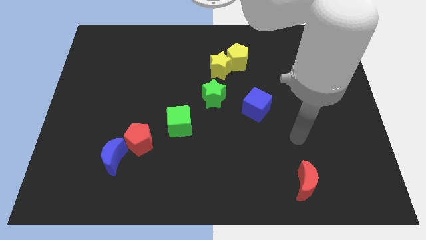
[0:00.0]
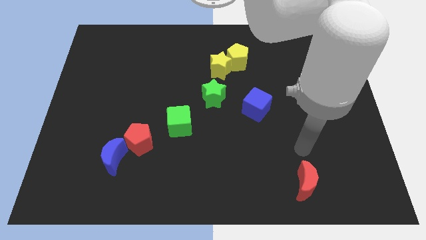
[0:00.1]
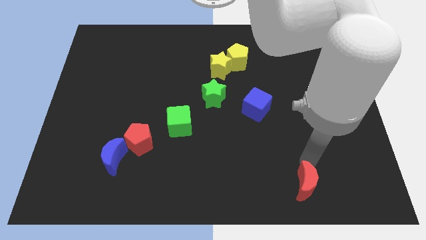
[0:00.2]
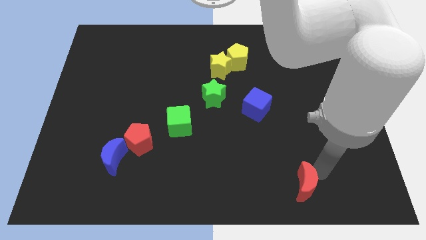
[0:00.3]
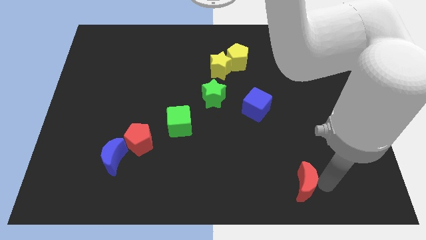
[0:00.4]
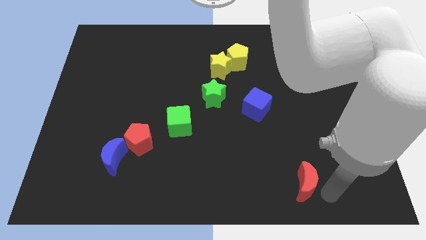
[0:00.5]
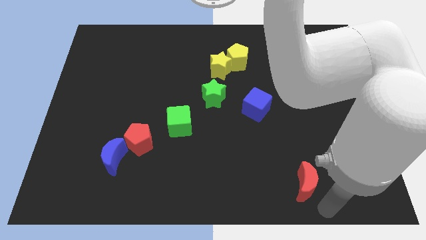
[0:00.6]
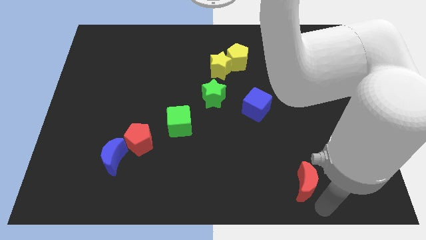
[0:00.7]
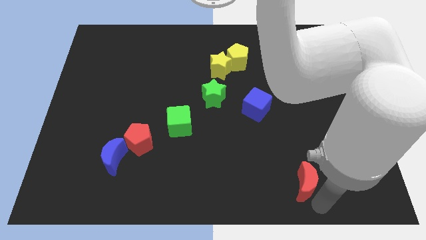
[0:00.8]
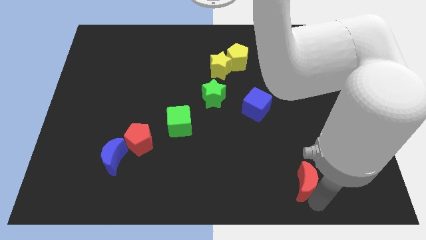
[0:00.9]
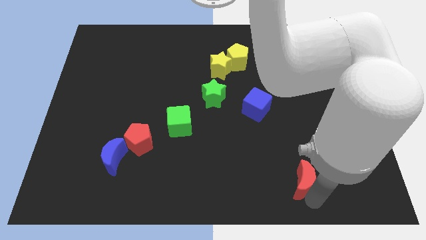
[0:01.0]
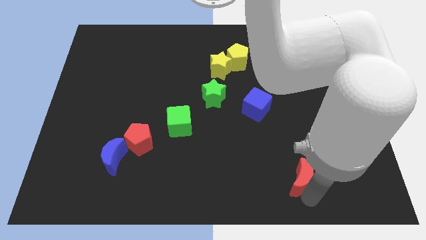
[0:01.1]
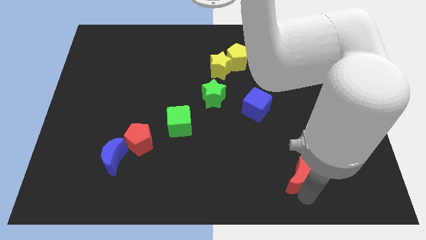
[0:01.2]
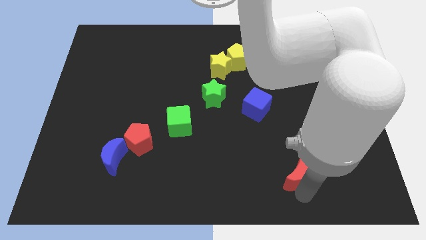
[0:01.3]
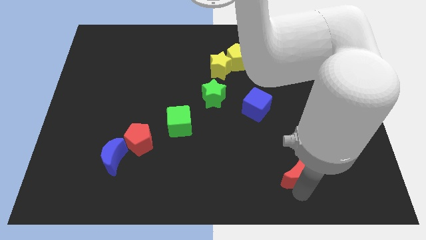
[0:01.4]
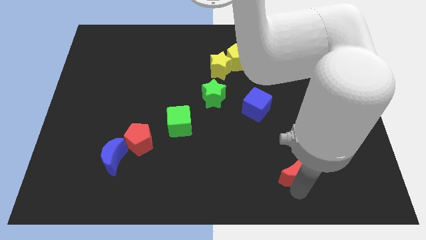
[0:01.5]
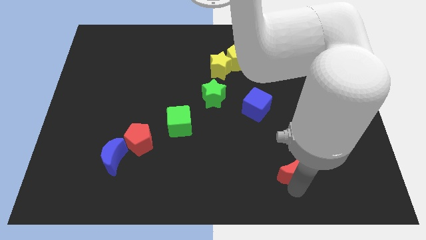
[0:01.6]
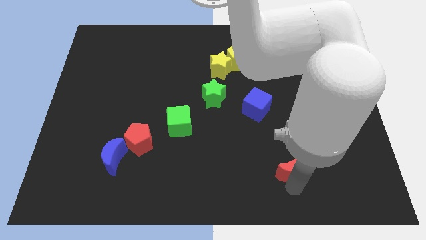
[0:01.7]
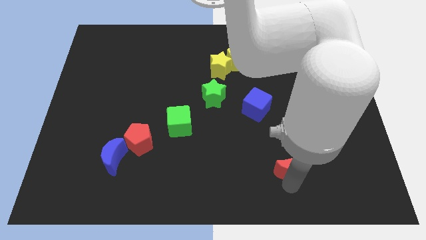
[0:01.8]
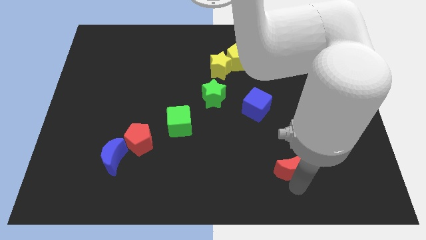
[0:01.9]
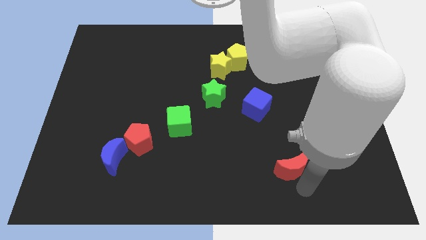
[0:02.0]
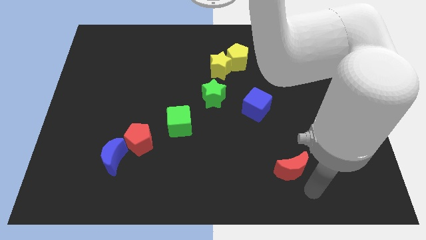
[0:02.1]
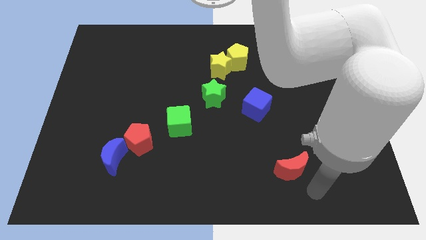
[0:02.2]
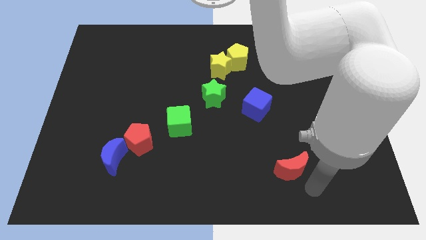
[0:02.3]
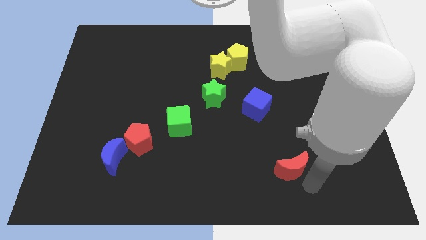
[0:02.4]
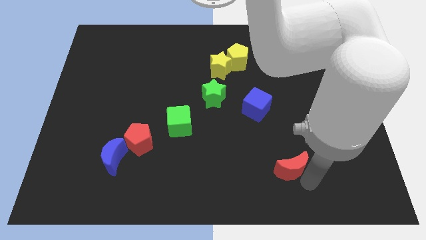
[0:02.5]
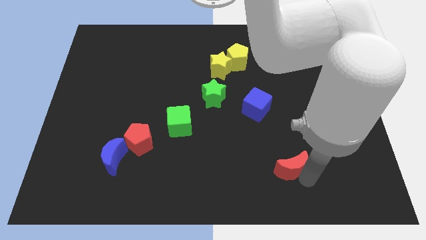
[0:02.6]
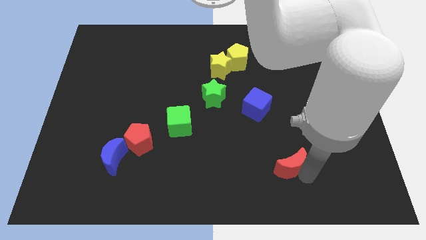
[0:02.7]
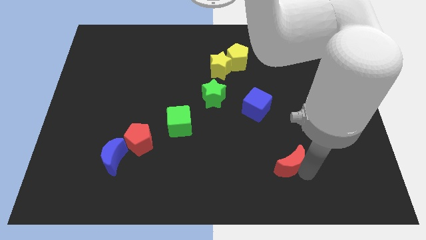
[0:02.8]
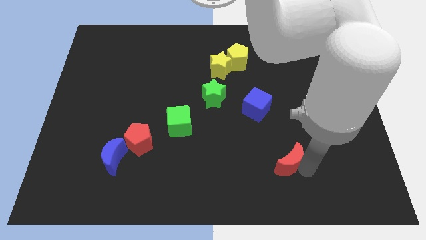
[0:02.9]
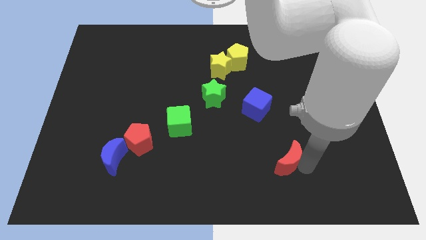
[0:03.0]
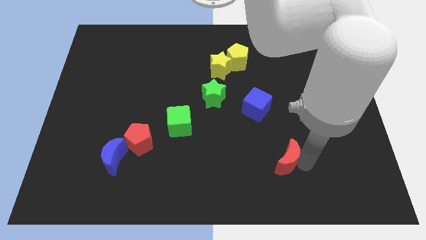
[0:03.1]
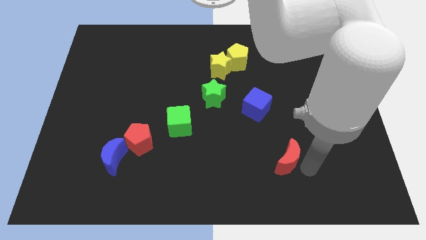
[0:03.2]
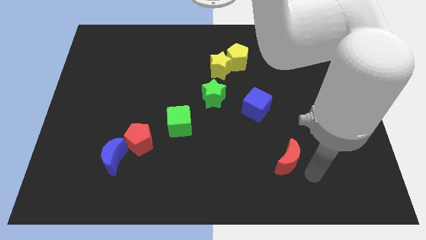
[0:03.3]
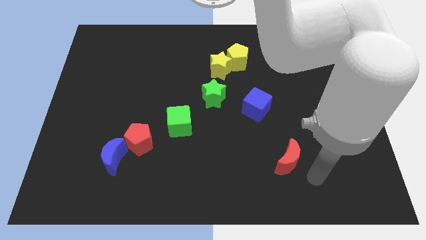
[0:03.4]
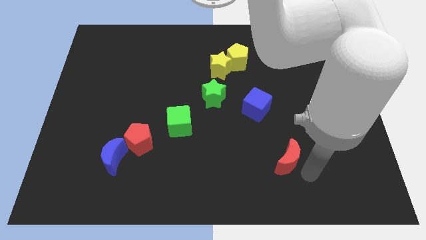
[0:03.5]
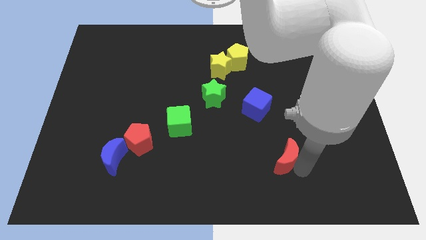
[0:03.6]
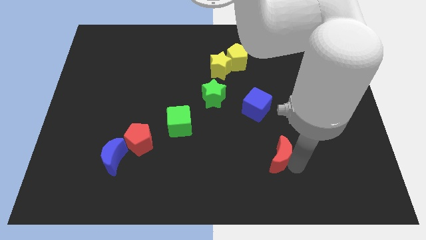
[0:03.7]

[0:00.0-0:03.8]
slightly push the red moon upwards and then left

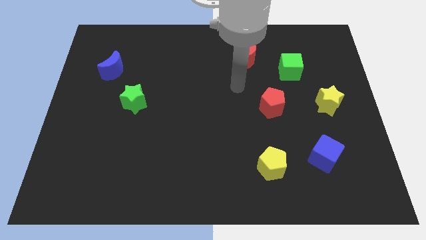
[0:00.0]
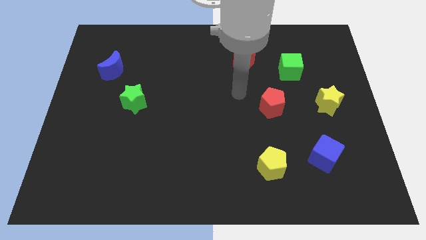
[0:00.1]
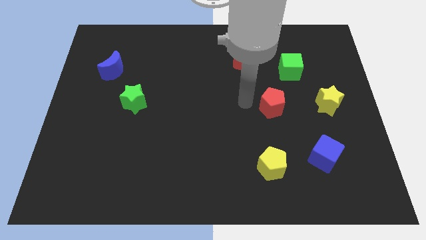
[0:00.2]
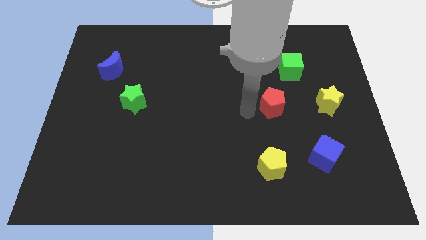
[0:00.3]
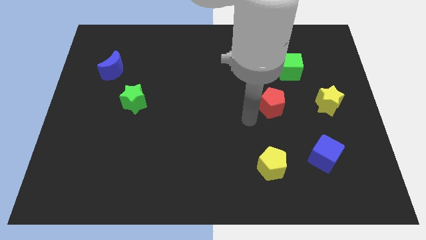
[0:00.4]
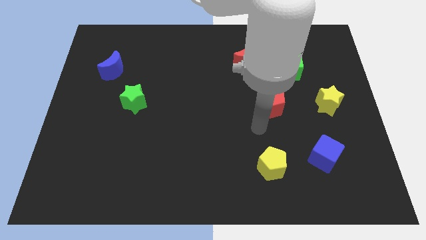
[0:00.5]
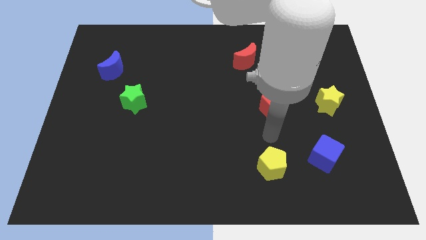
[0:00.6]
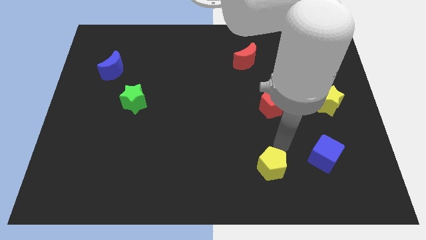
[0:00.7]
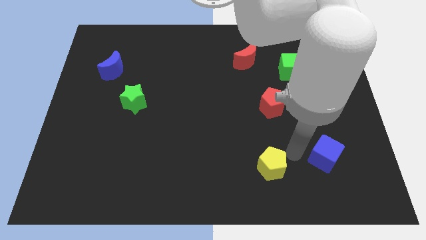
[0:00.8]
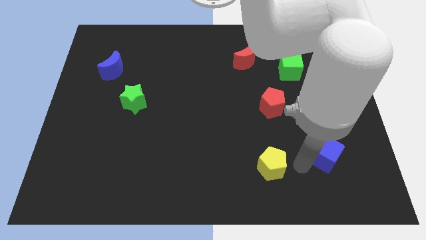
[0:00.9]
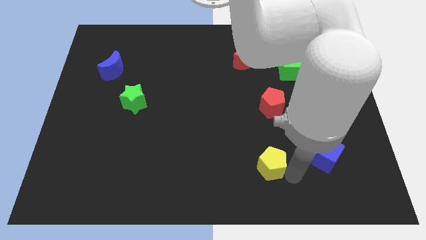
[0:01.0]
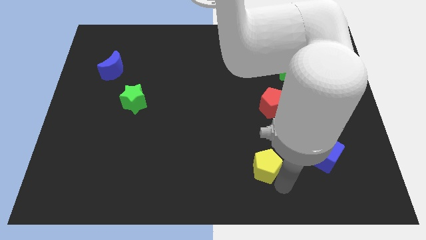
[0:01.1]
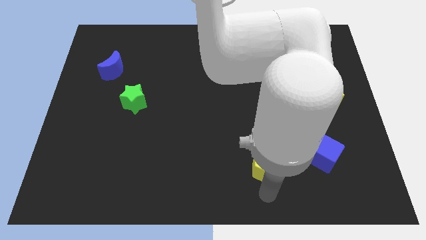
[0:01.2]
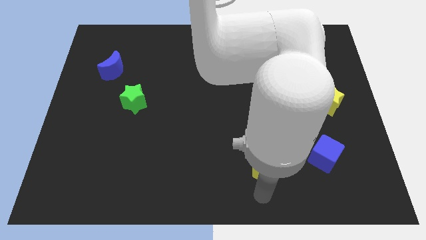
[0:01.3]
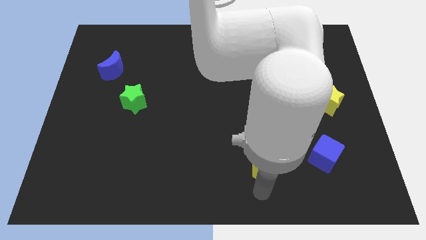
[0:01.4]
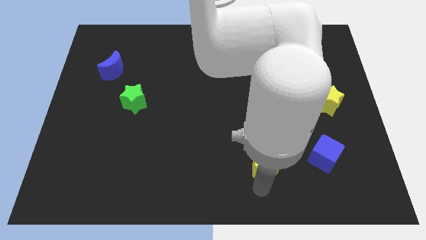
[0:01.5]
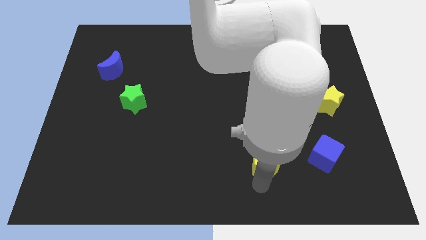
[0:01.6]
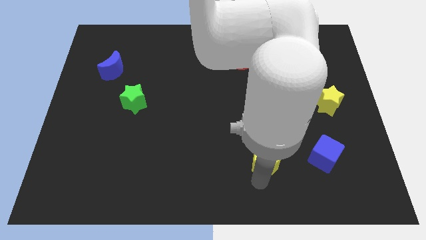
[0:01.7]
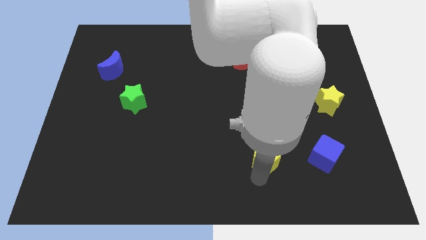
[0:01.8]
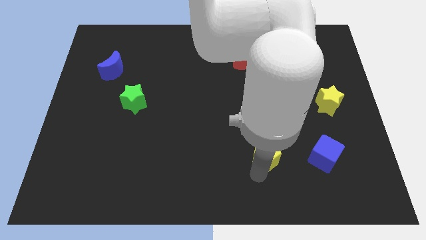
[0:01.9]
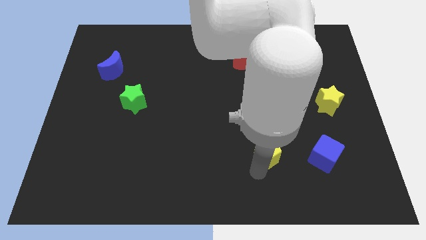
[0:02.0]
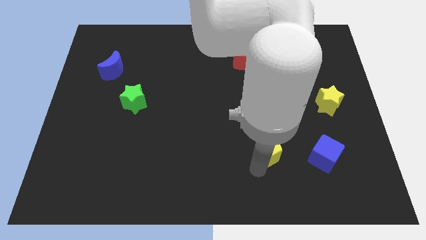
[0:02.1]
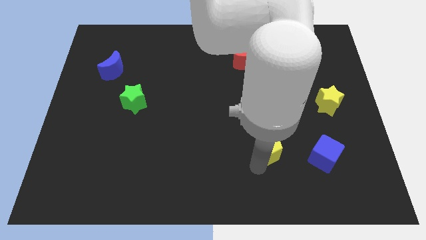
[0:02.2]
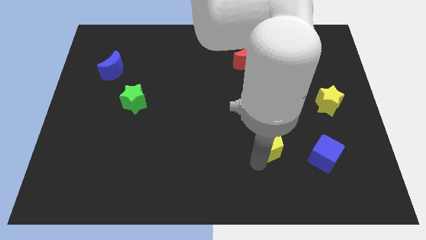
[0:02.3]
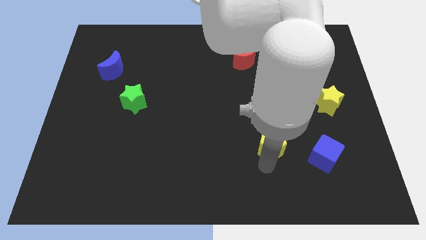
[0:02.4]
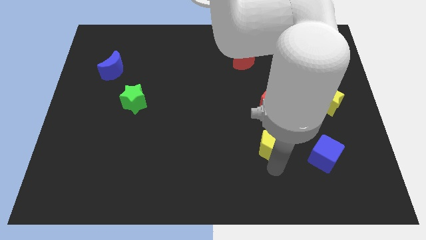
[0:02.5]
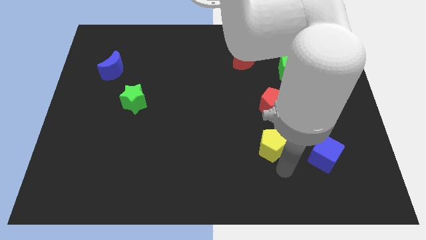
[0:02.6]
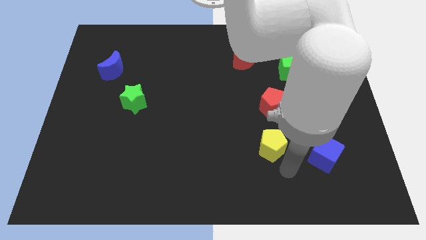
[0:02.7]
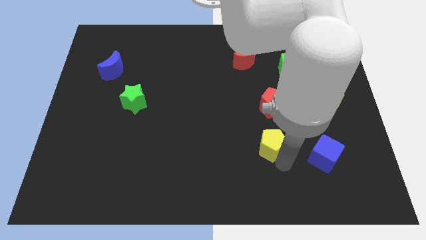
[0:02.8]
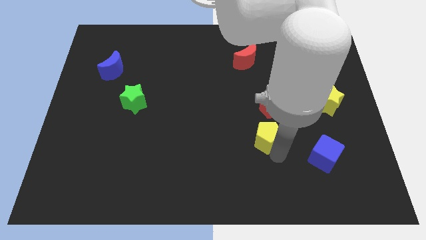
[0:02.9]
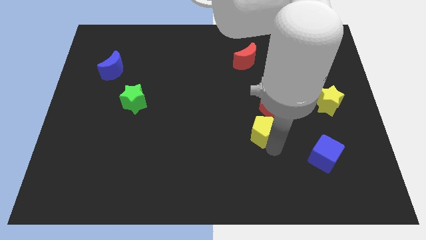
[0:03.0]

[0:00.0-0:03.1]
slide the yellow pentagon a bit upwards

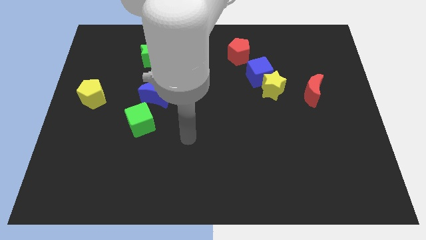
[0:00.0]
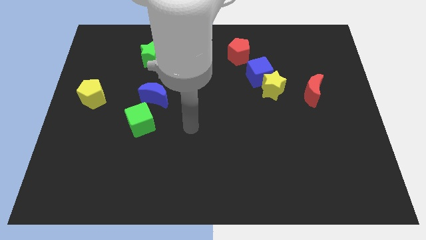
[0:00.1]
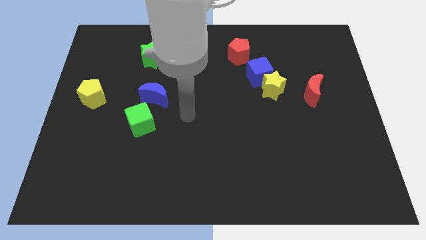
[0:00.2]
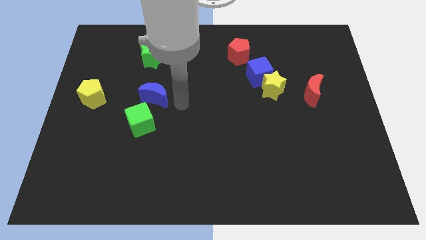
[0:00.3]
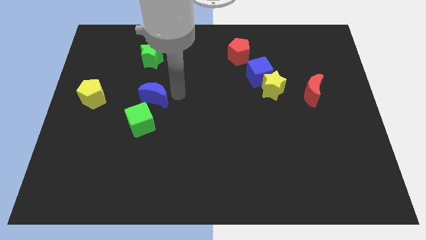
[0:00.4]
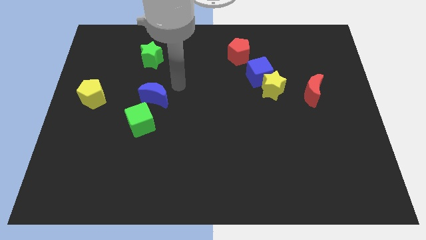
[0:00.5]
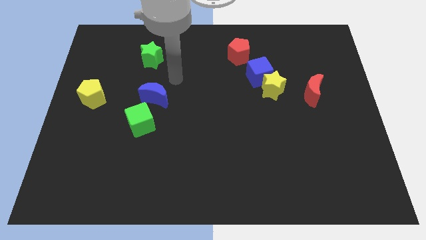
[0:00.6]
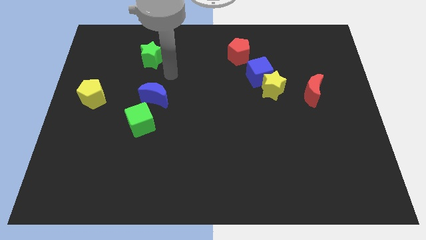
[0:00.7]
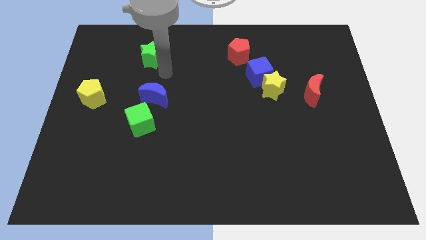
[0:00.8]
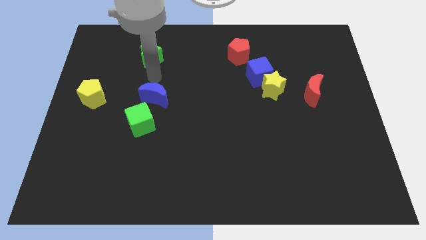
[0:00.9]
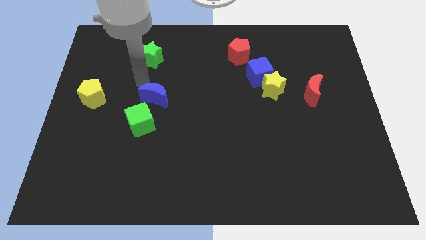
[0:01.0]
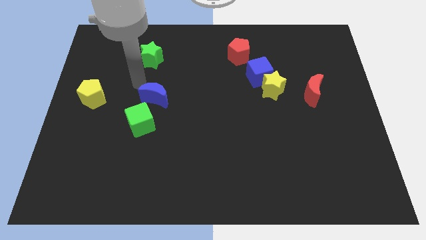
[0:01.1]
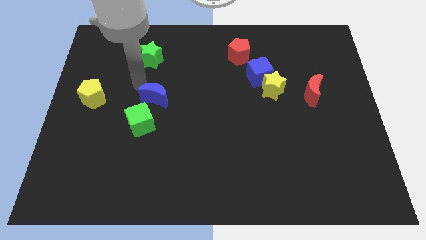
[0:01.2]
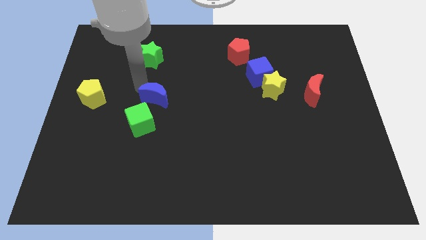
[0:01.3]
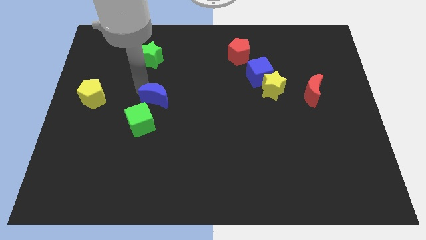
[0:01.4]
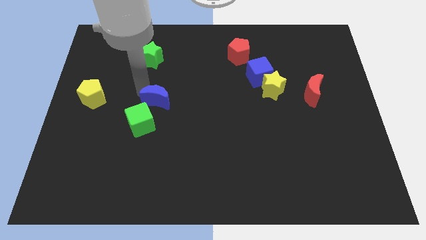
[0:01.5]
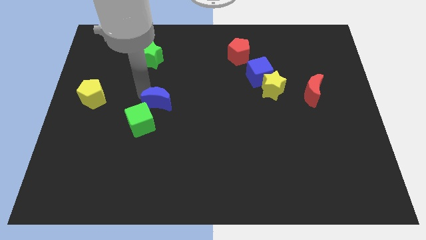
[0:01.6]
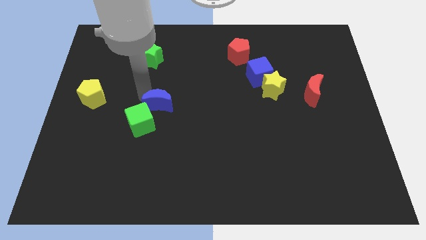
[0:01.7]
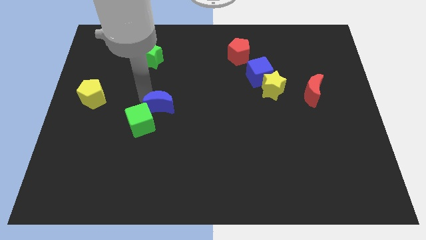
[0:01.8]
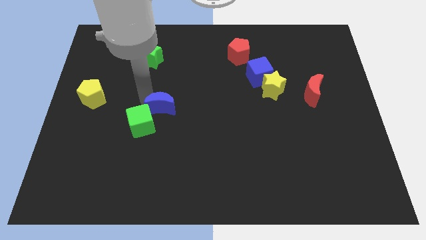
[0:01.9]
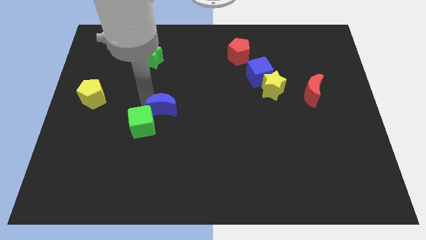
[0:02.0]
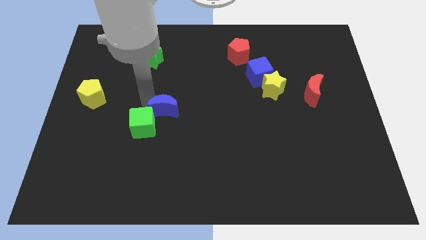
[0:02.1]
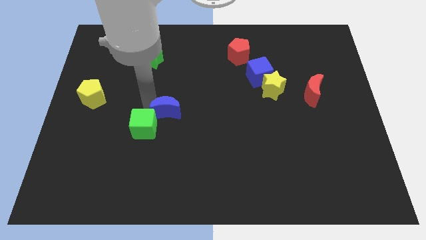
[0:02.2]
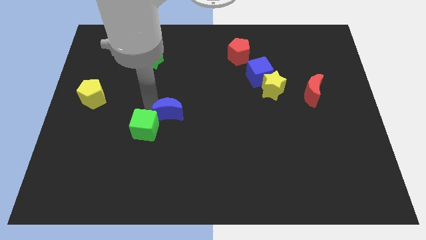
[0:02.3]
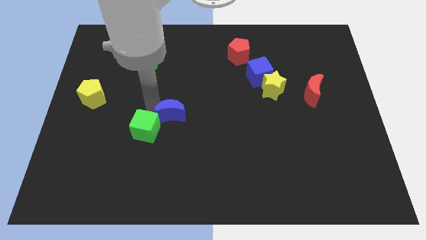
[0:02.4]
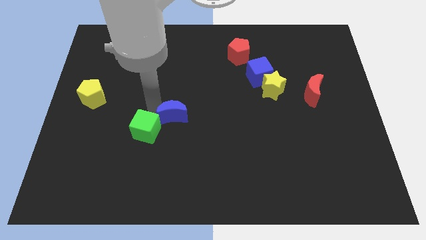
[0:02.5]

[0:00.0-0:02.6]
move the blue moon down and to the right diagonally a little
